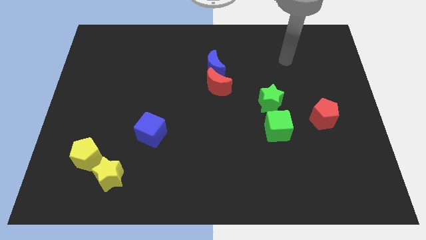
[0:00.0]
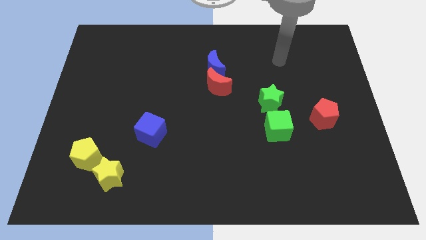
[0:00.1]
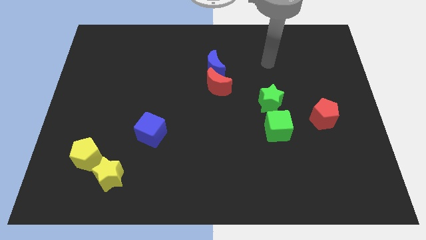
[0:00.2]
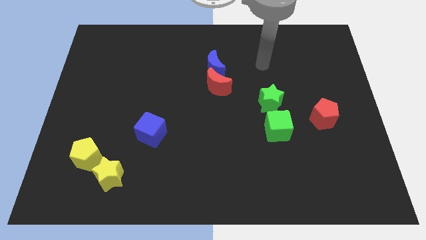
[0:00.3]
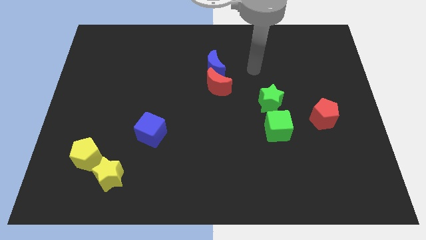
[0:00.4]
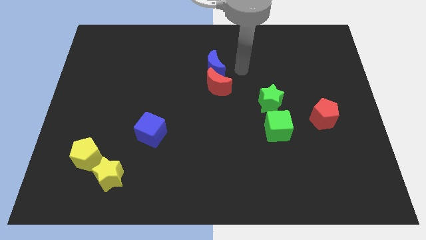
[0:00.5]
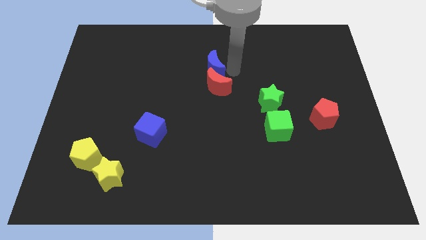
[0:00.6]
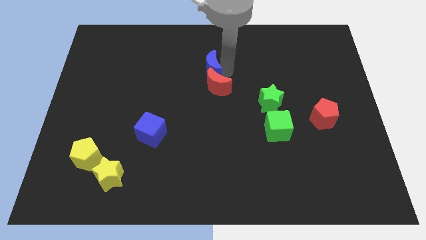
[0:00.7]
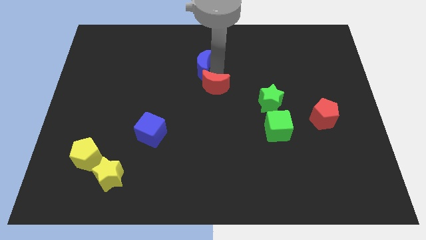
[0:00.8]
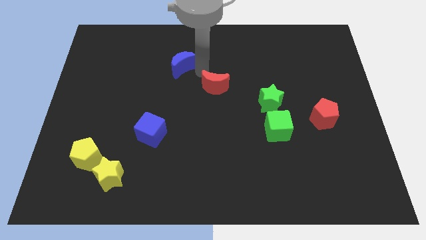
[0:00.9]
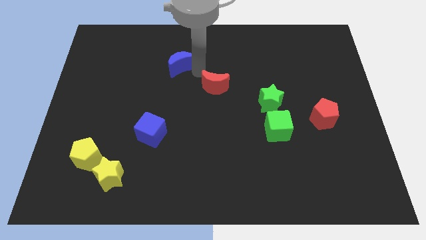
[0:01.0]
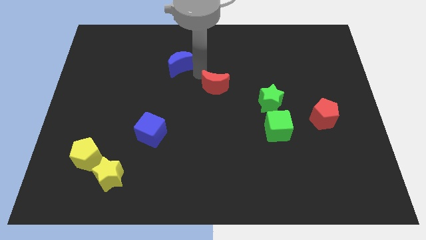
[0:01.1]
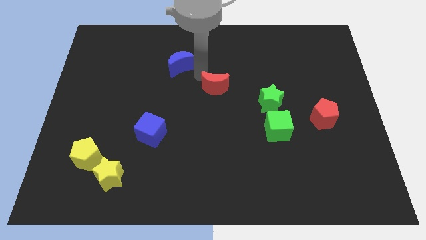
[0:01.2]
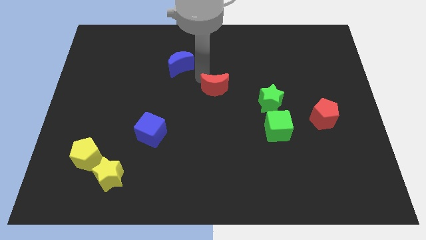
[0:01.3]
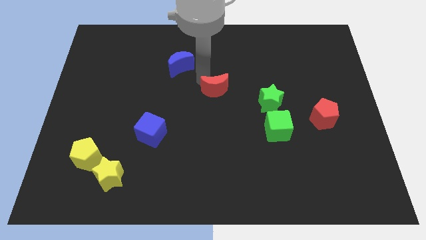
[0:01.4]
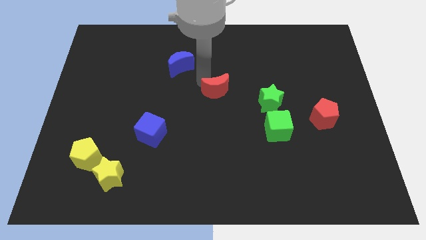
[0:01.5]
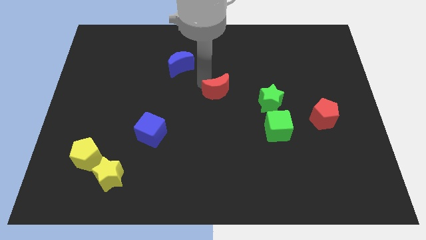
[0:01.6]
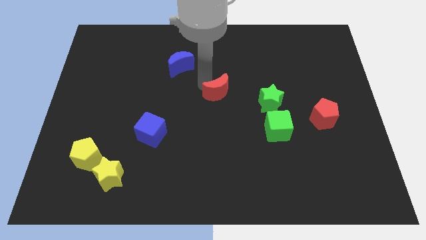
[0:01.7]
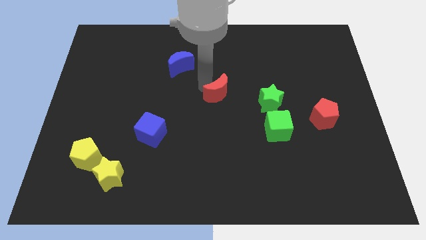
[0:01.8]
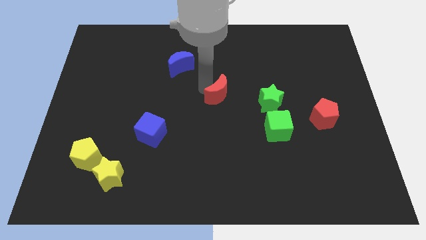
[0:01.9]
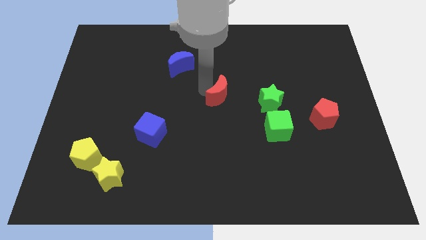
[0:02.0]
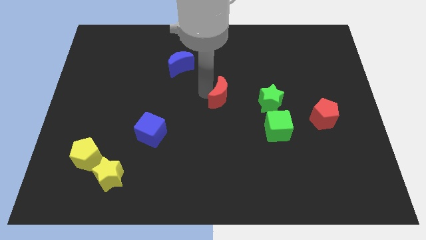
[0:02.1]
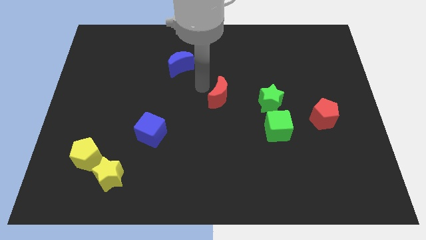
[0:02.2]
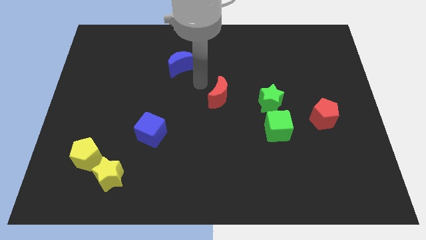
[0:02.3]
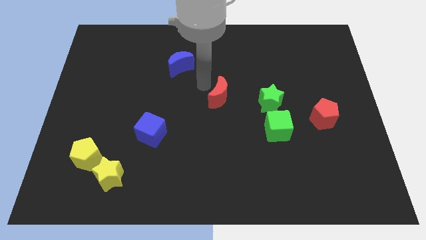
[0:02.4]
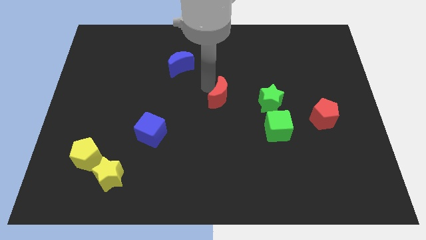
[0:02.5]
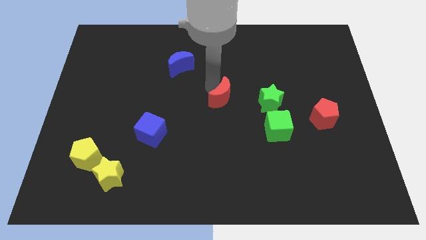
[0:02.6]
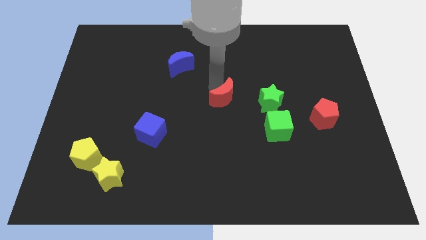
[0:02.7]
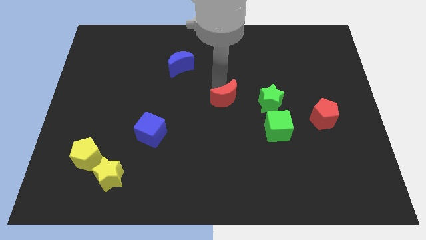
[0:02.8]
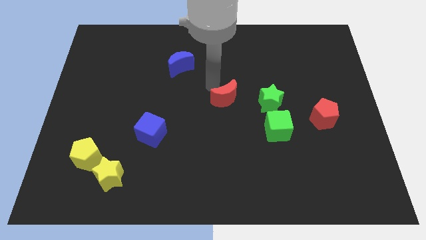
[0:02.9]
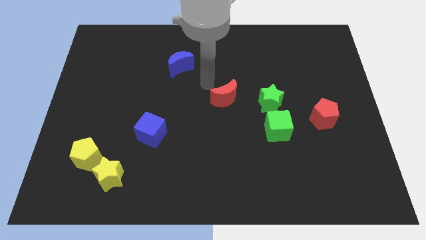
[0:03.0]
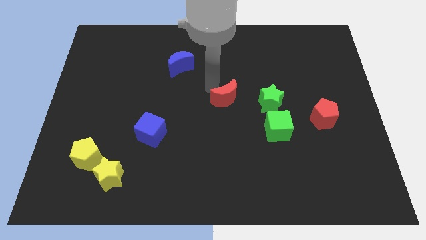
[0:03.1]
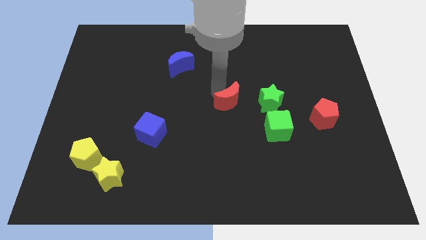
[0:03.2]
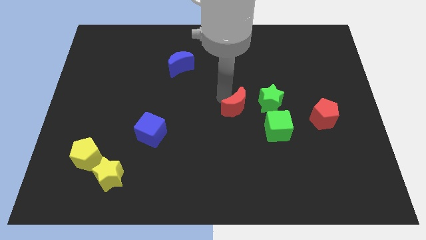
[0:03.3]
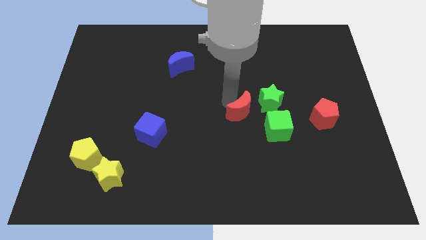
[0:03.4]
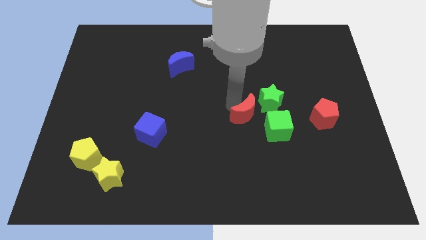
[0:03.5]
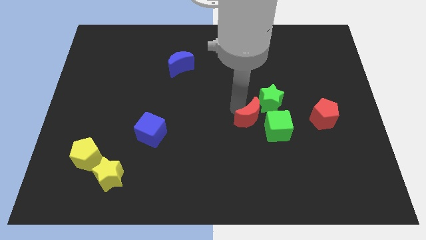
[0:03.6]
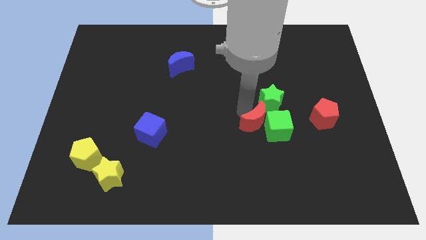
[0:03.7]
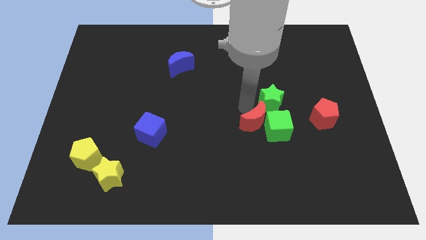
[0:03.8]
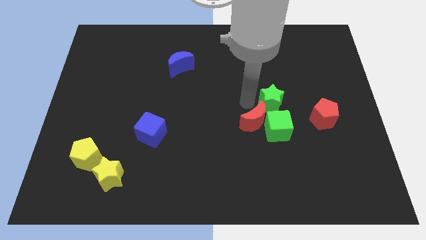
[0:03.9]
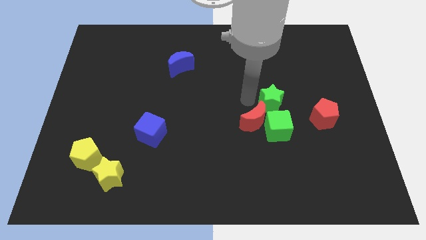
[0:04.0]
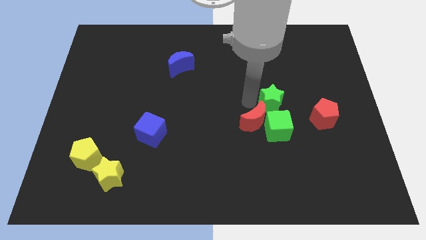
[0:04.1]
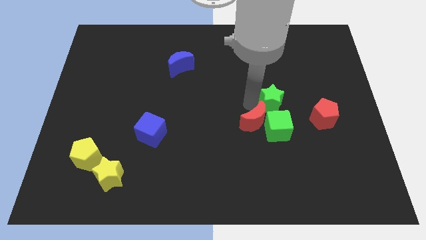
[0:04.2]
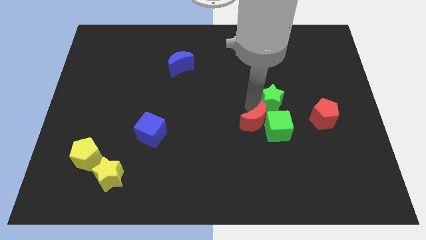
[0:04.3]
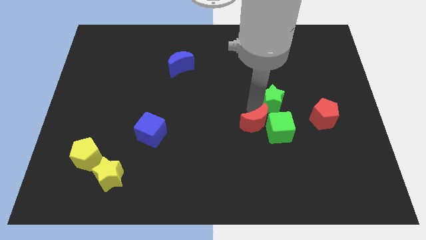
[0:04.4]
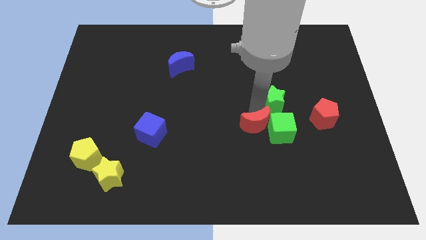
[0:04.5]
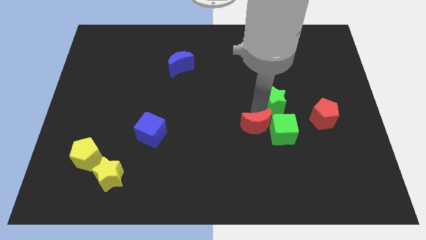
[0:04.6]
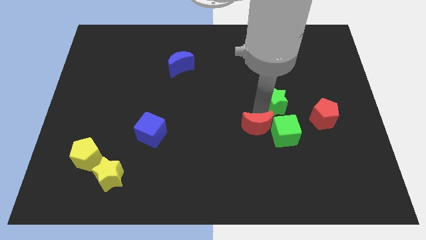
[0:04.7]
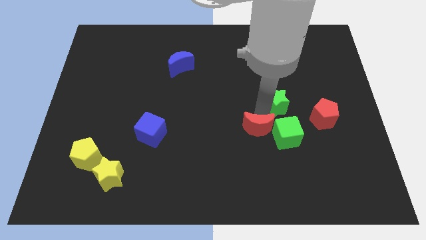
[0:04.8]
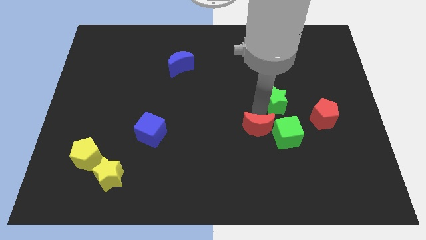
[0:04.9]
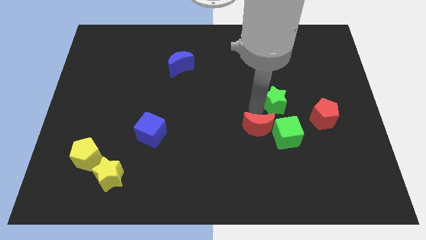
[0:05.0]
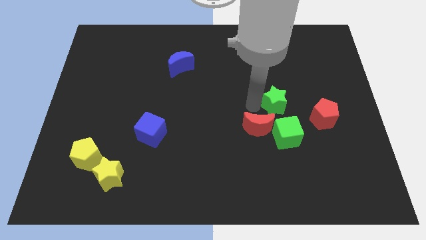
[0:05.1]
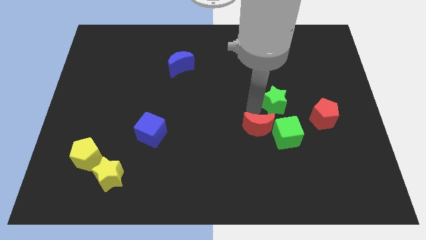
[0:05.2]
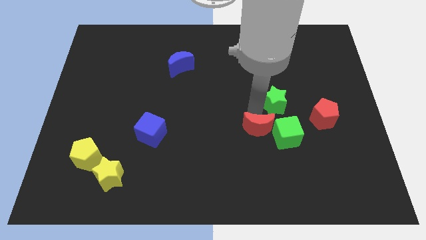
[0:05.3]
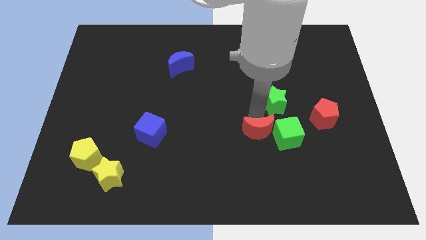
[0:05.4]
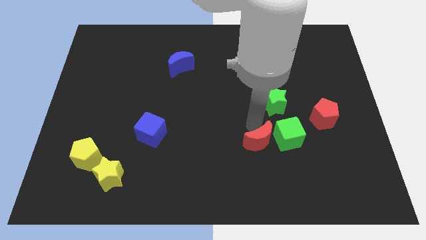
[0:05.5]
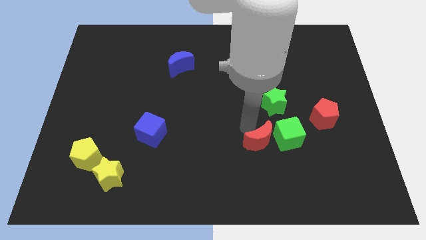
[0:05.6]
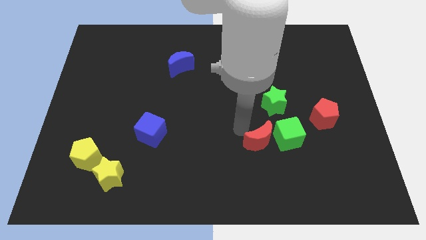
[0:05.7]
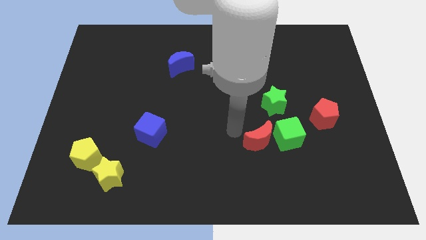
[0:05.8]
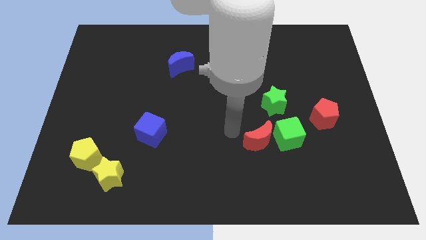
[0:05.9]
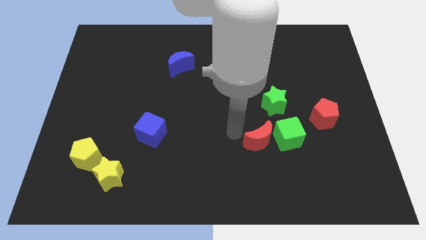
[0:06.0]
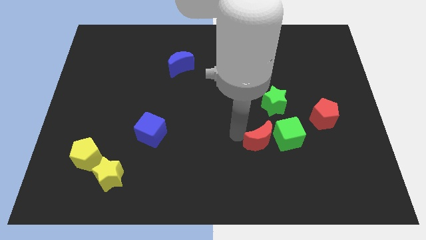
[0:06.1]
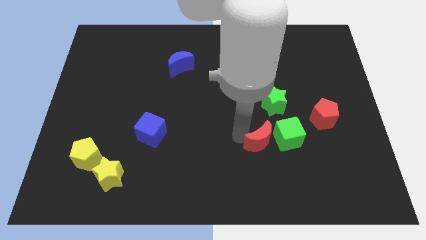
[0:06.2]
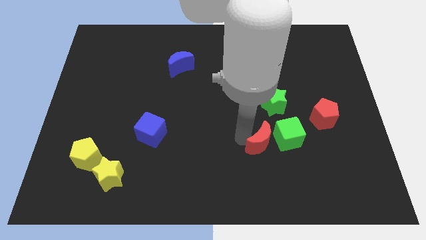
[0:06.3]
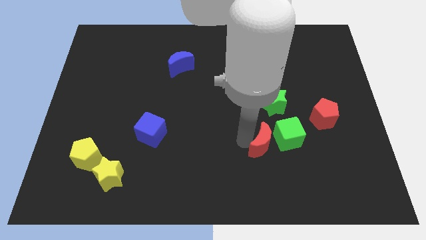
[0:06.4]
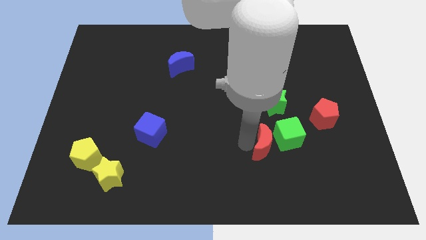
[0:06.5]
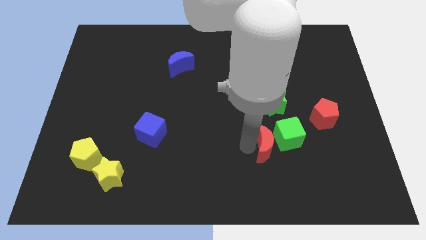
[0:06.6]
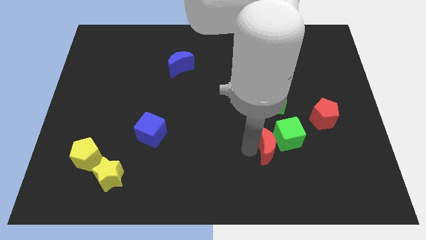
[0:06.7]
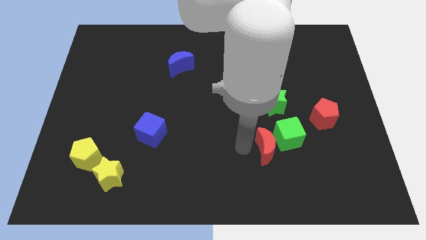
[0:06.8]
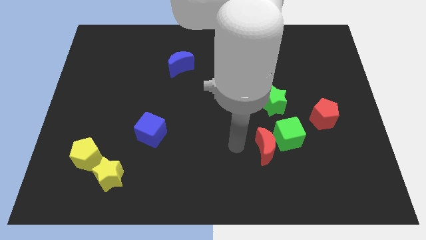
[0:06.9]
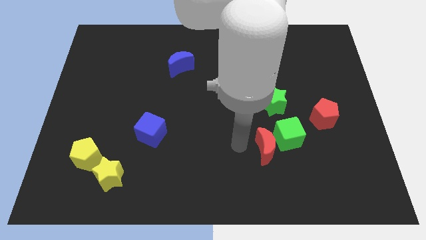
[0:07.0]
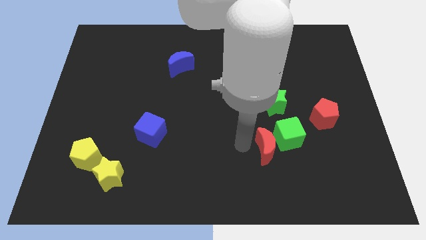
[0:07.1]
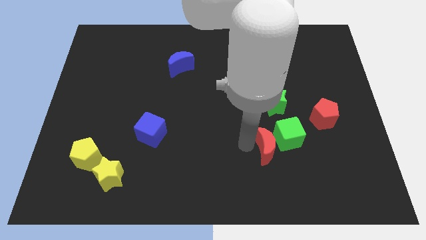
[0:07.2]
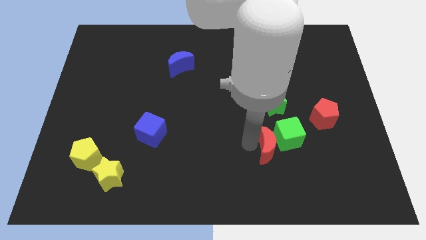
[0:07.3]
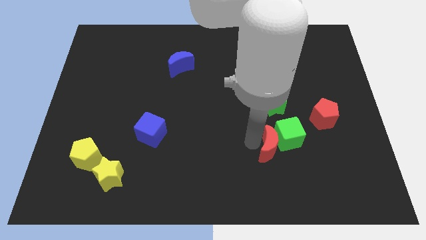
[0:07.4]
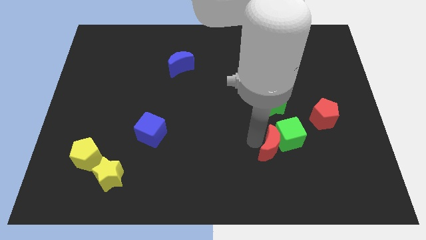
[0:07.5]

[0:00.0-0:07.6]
slide the red moon diagonally down and right
